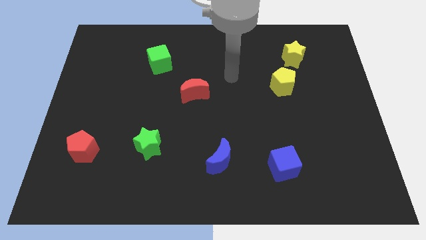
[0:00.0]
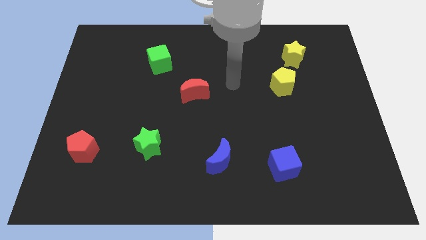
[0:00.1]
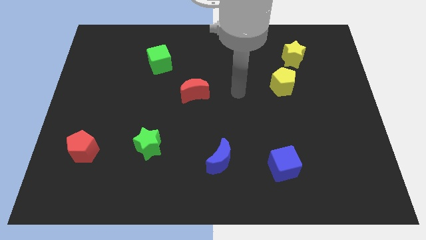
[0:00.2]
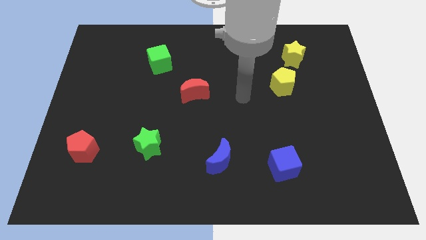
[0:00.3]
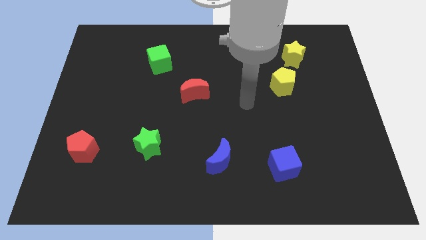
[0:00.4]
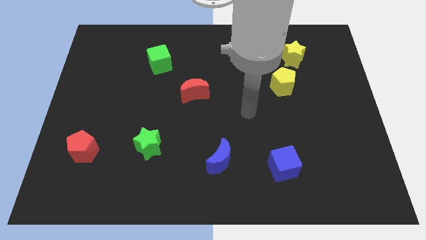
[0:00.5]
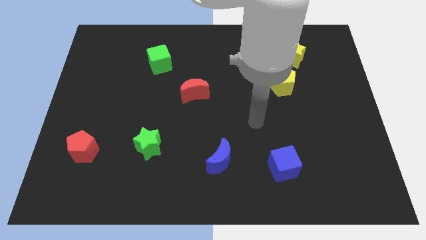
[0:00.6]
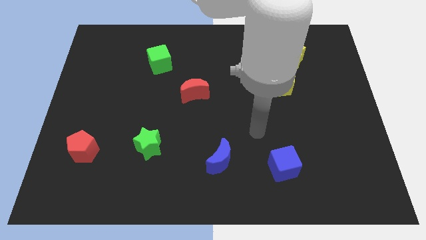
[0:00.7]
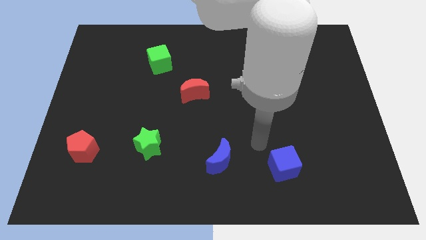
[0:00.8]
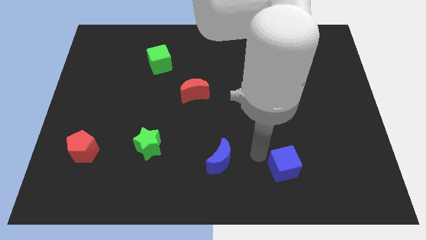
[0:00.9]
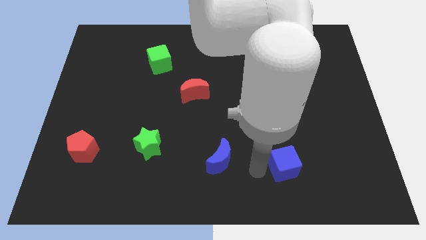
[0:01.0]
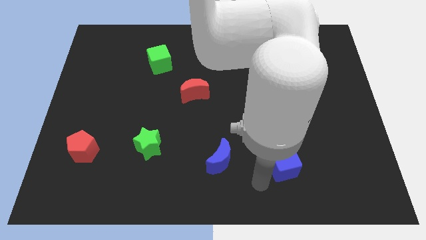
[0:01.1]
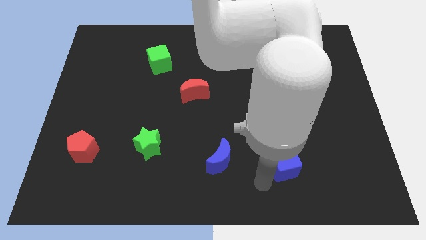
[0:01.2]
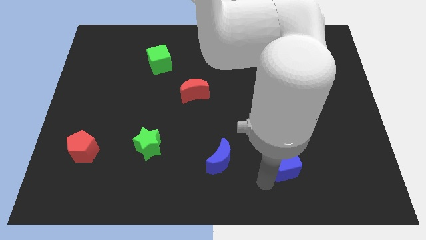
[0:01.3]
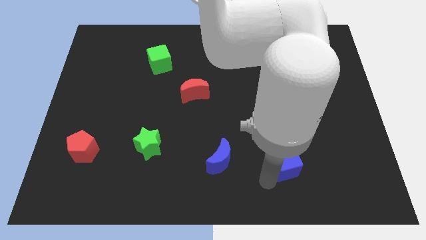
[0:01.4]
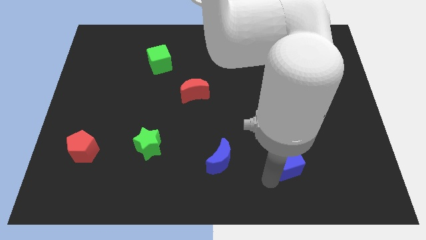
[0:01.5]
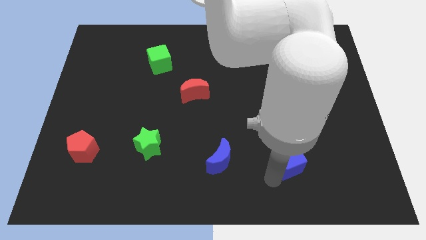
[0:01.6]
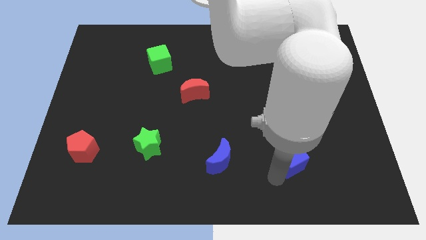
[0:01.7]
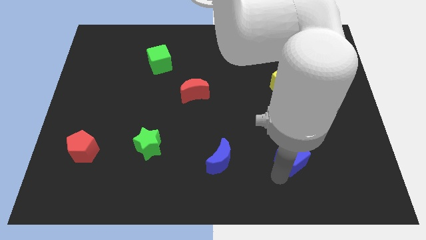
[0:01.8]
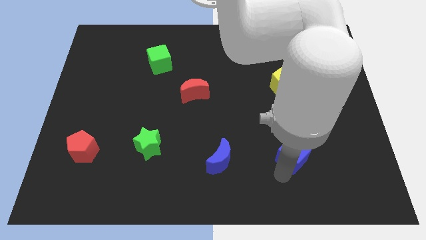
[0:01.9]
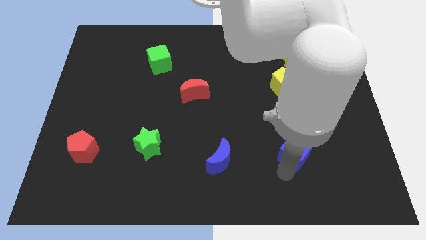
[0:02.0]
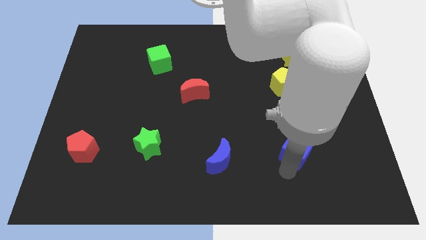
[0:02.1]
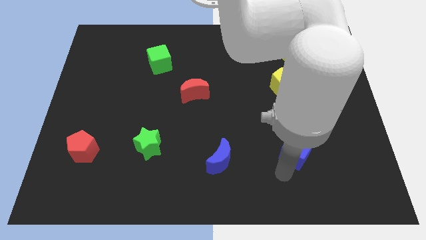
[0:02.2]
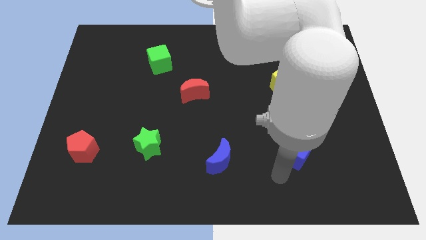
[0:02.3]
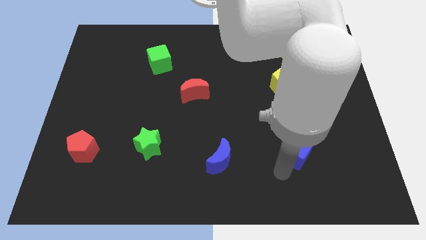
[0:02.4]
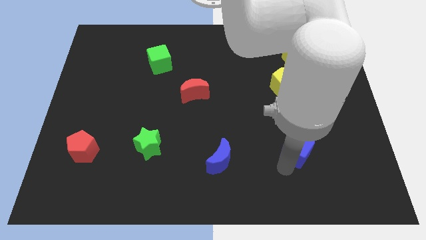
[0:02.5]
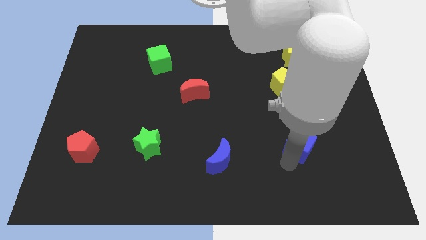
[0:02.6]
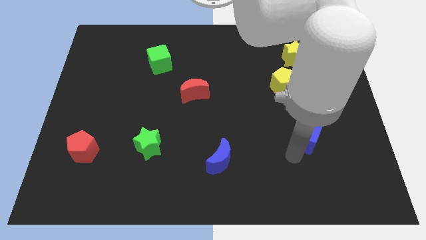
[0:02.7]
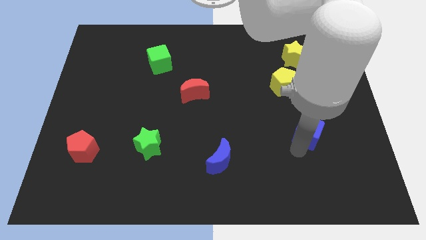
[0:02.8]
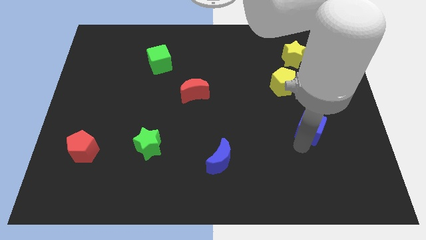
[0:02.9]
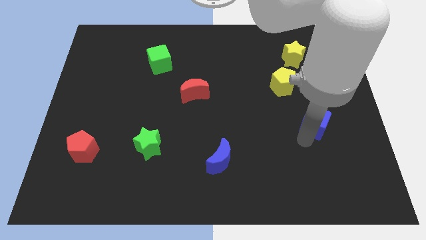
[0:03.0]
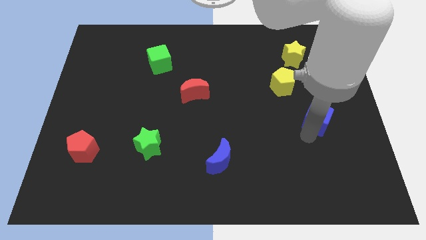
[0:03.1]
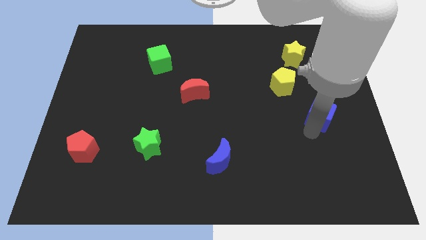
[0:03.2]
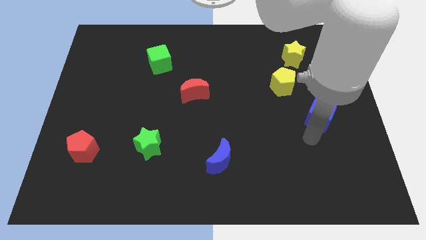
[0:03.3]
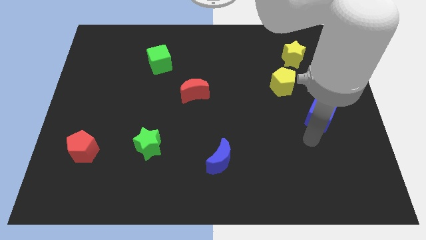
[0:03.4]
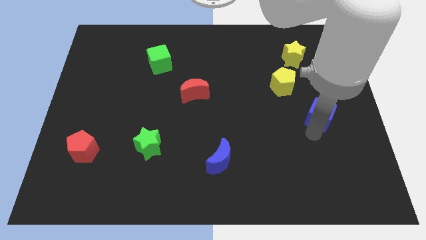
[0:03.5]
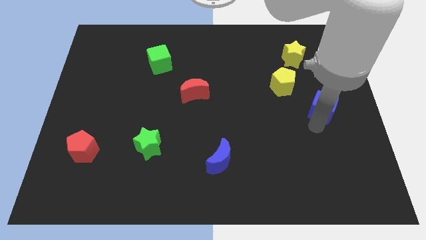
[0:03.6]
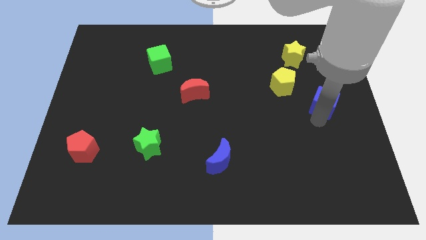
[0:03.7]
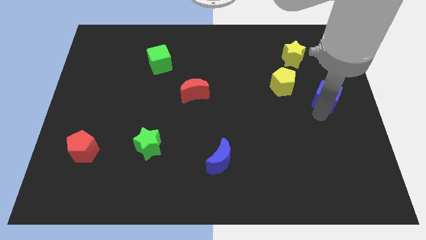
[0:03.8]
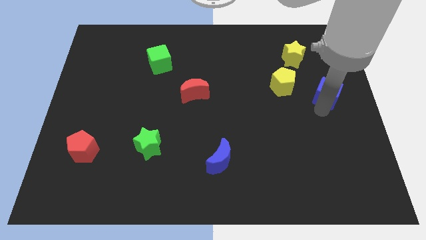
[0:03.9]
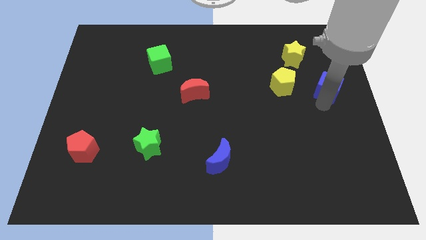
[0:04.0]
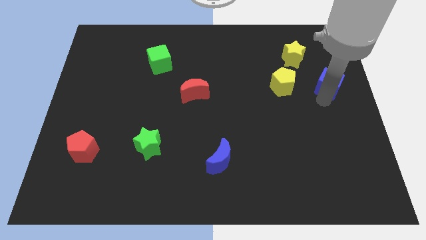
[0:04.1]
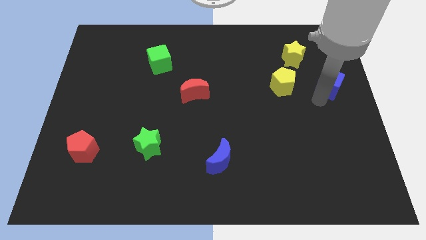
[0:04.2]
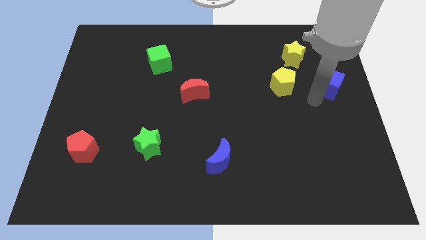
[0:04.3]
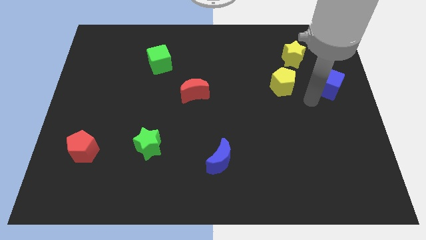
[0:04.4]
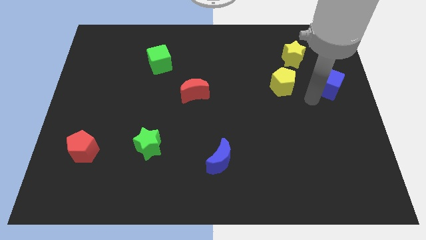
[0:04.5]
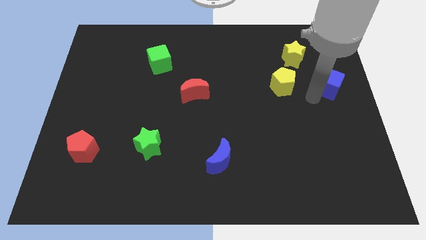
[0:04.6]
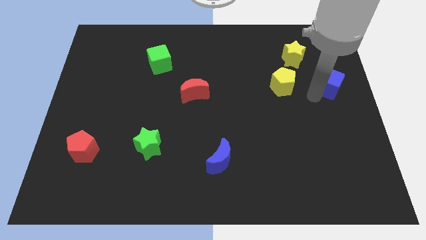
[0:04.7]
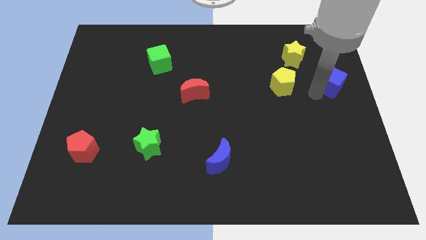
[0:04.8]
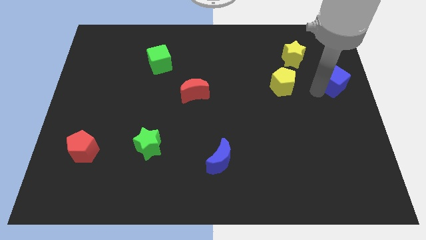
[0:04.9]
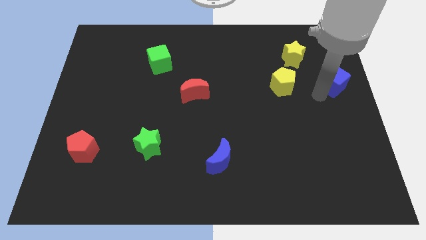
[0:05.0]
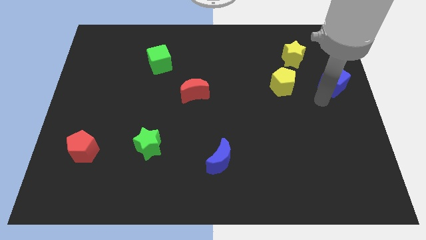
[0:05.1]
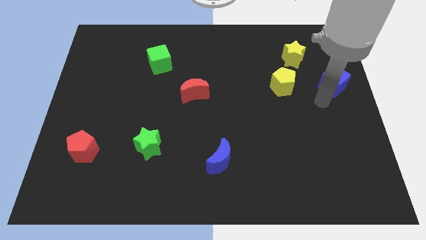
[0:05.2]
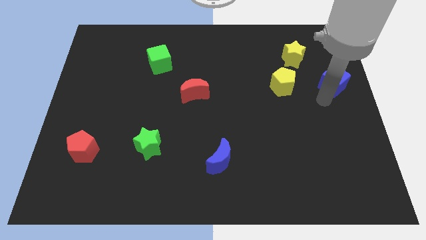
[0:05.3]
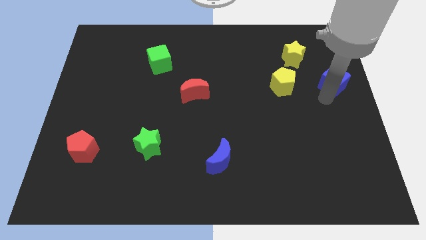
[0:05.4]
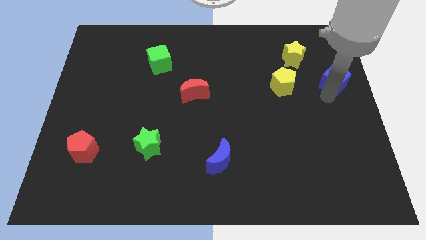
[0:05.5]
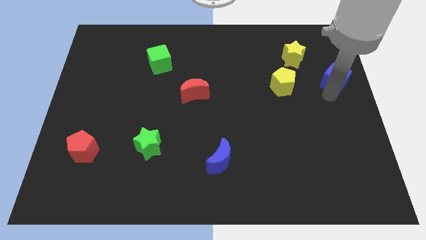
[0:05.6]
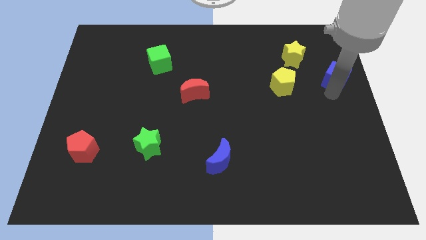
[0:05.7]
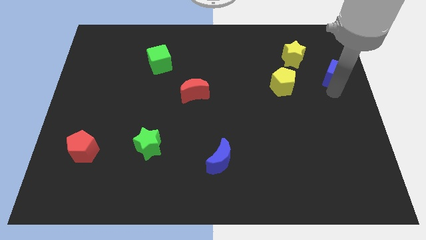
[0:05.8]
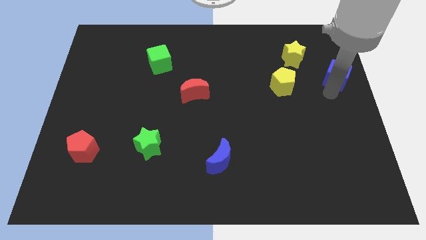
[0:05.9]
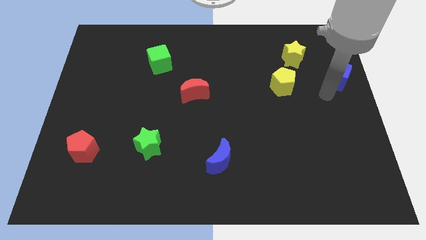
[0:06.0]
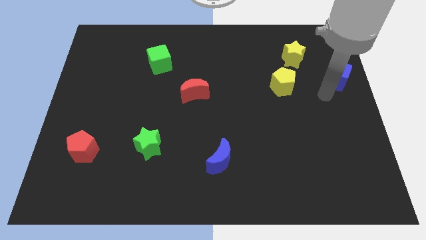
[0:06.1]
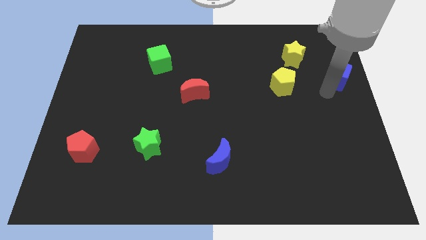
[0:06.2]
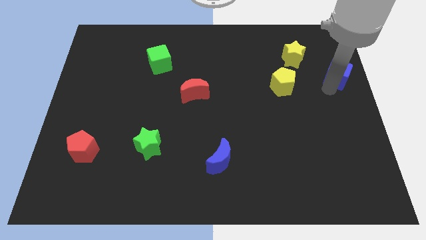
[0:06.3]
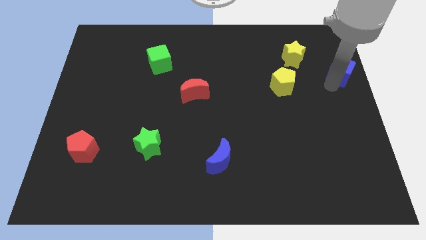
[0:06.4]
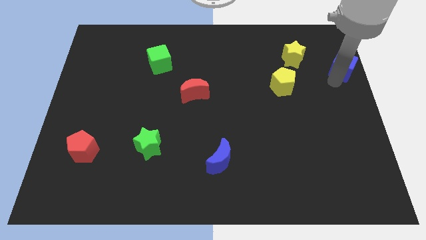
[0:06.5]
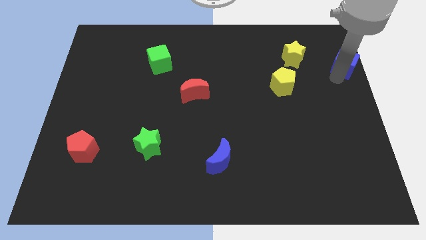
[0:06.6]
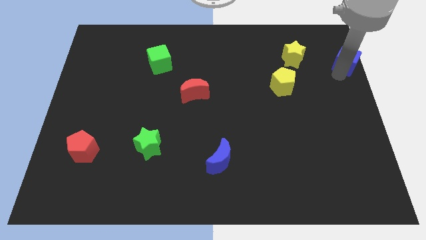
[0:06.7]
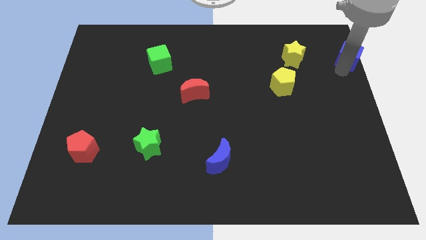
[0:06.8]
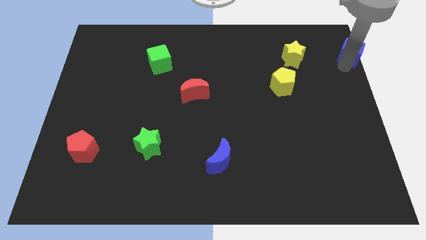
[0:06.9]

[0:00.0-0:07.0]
put the blue cube to the upper right corner
